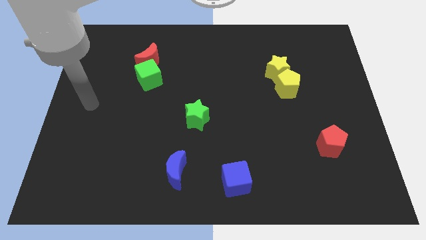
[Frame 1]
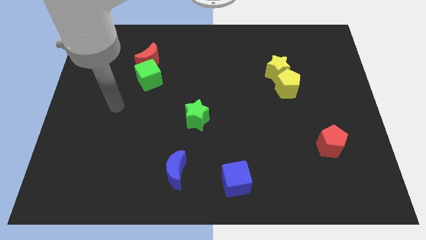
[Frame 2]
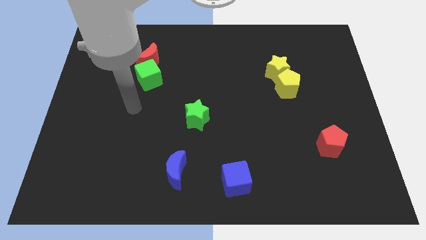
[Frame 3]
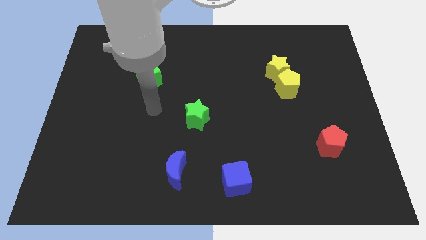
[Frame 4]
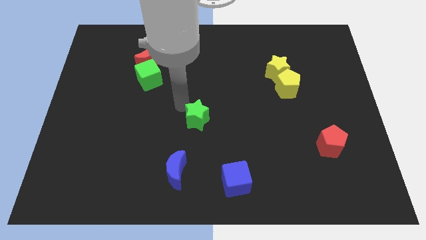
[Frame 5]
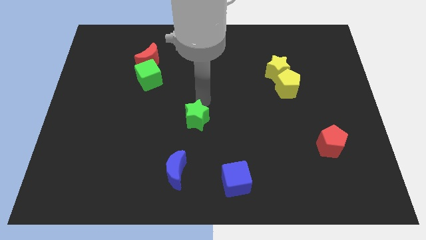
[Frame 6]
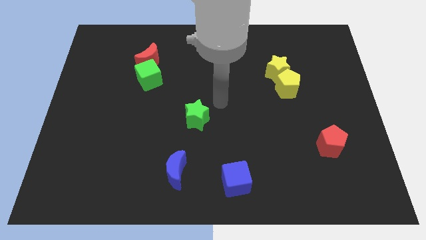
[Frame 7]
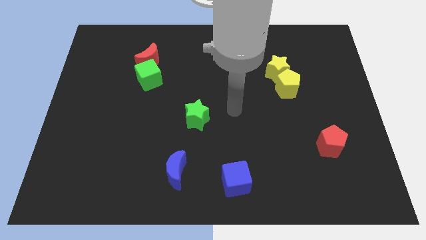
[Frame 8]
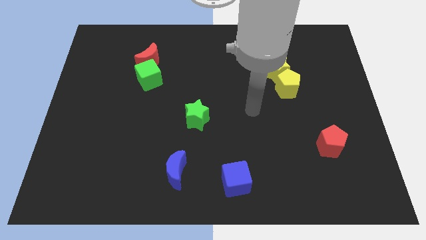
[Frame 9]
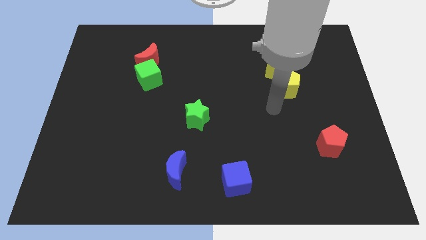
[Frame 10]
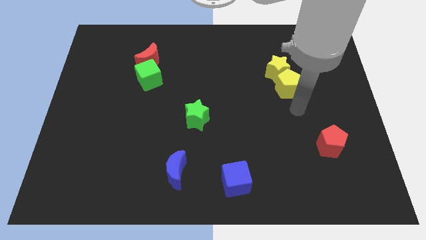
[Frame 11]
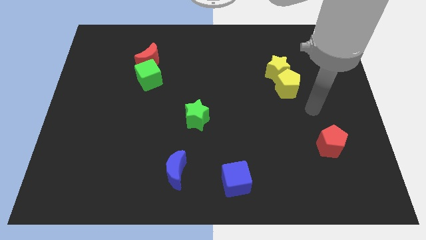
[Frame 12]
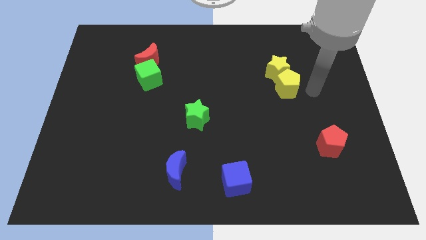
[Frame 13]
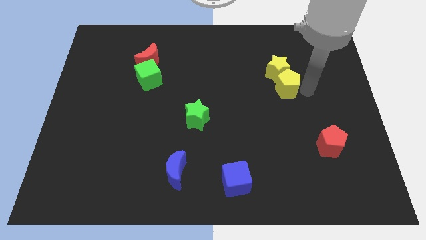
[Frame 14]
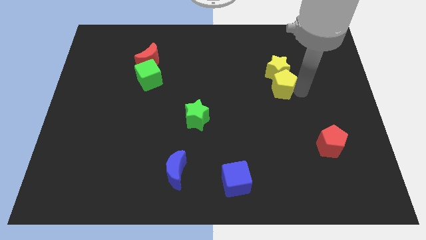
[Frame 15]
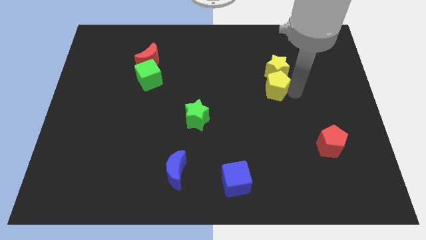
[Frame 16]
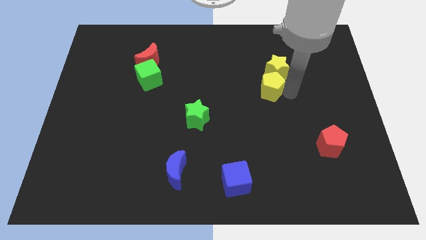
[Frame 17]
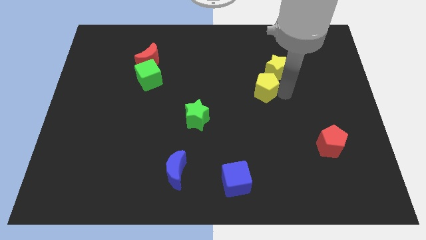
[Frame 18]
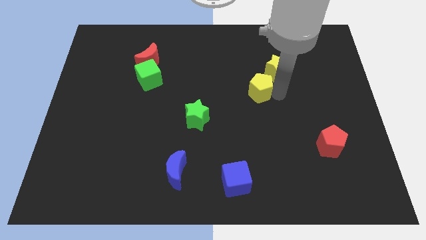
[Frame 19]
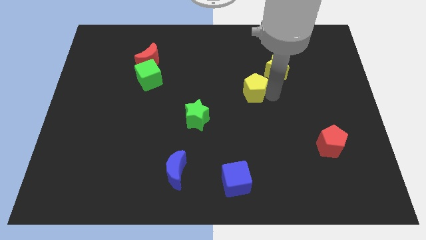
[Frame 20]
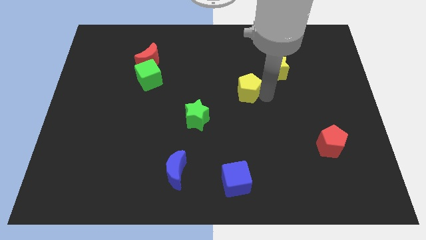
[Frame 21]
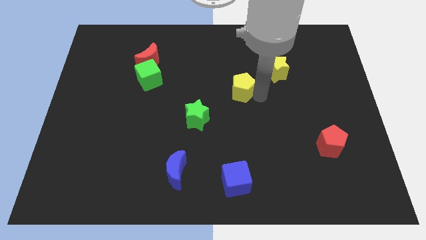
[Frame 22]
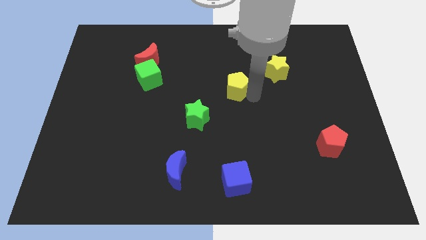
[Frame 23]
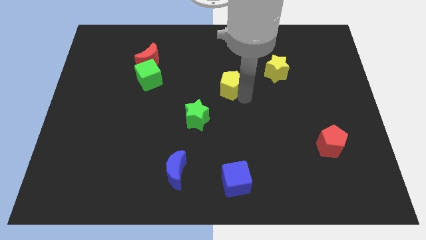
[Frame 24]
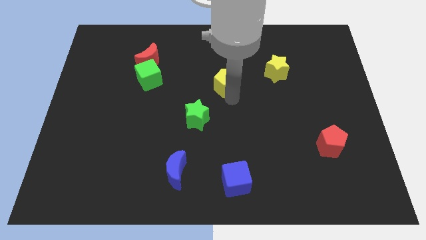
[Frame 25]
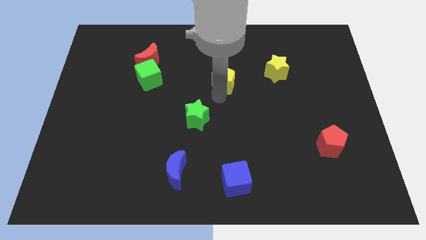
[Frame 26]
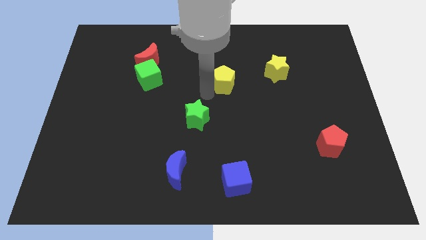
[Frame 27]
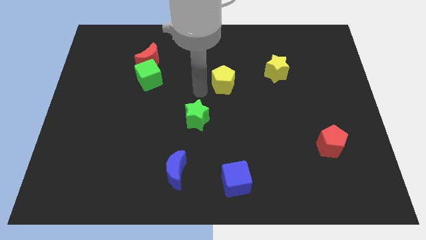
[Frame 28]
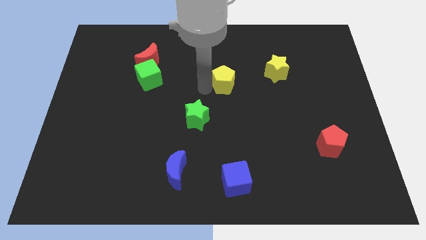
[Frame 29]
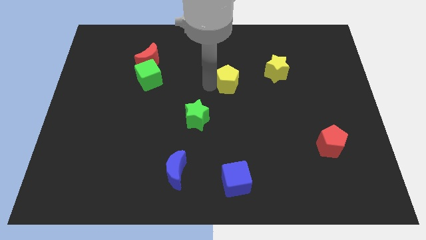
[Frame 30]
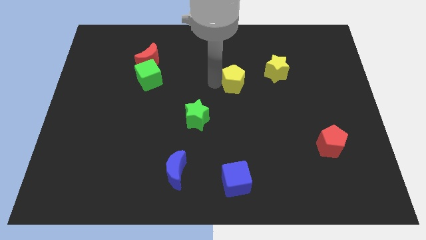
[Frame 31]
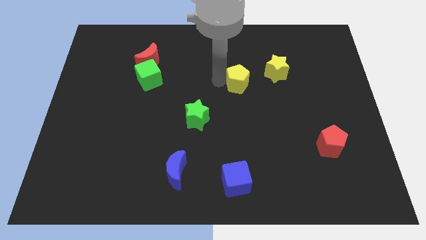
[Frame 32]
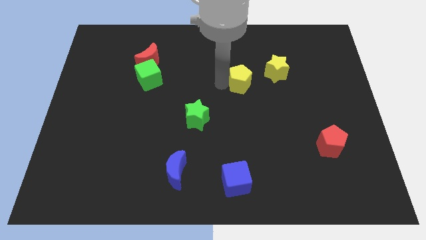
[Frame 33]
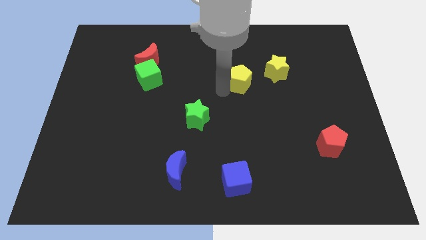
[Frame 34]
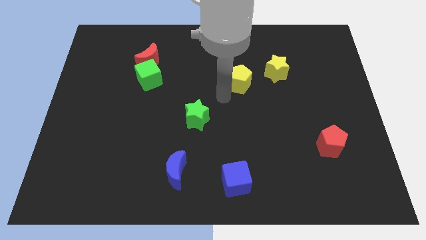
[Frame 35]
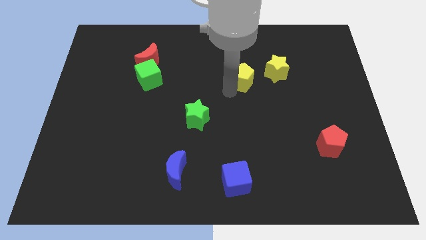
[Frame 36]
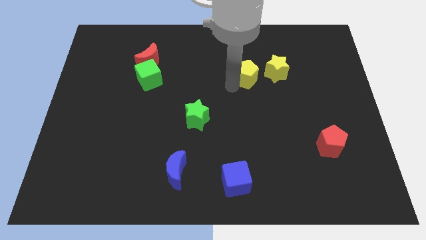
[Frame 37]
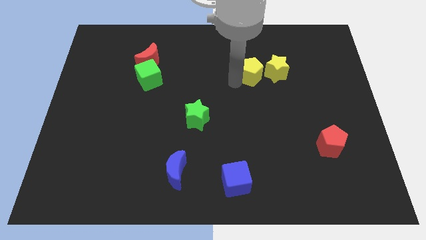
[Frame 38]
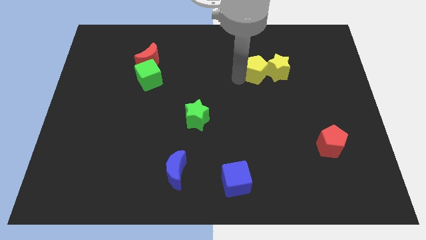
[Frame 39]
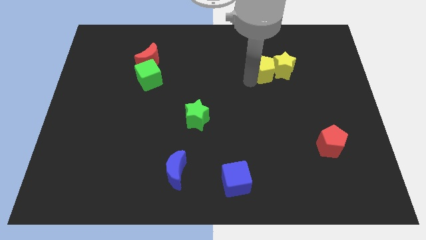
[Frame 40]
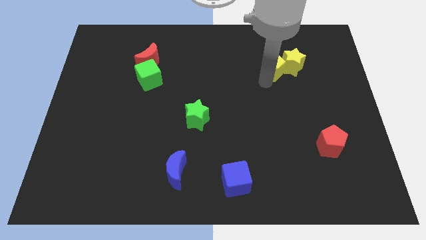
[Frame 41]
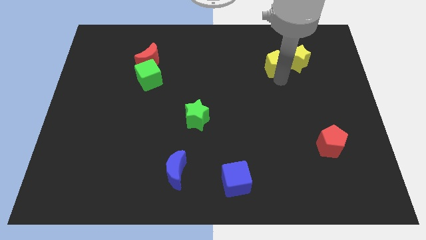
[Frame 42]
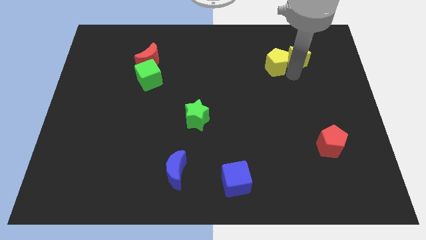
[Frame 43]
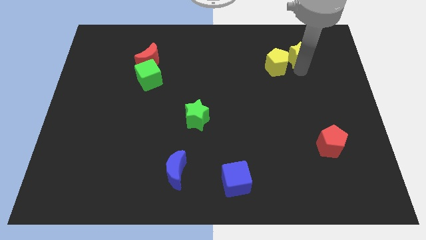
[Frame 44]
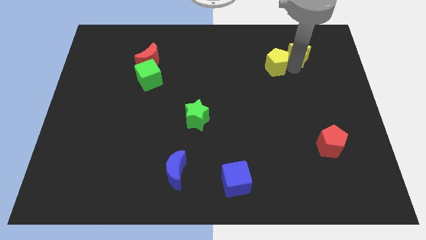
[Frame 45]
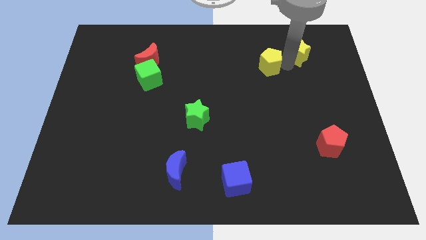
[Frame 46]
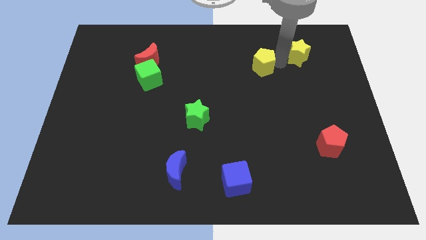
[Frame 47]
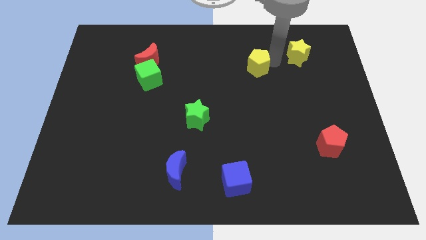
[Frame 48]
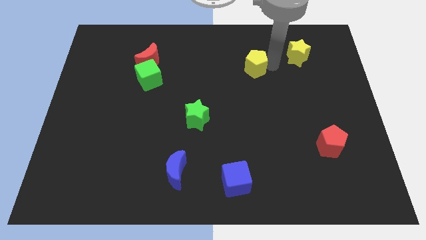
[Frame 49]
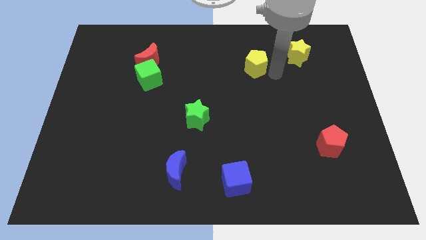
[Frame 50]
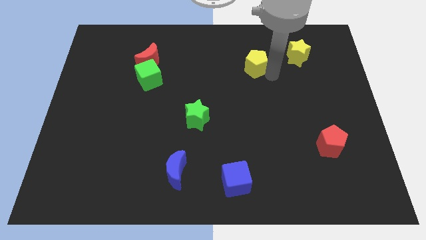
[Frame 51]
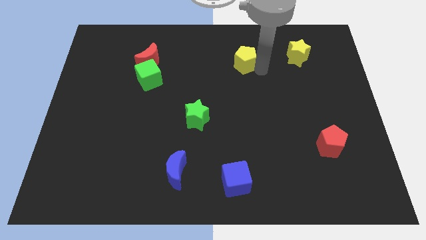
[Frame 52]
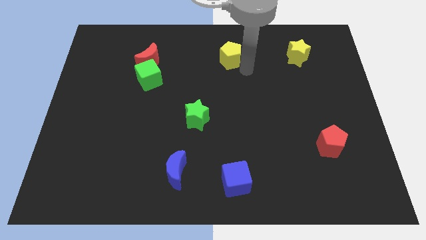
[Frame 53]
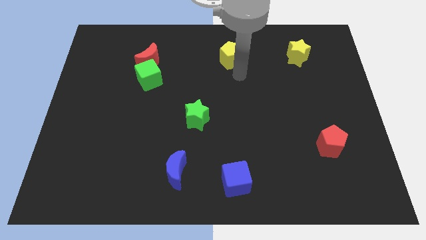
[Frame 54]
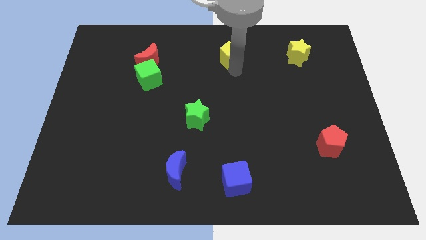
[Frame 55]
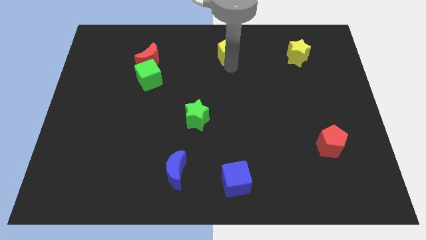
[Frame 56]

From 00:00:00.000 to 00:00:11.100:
move the yellow pentagon to the towards your base

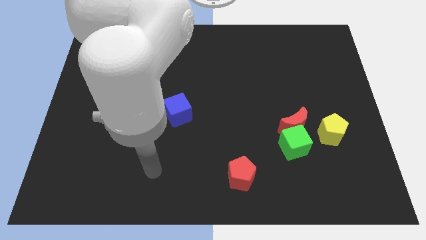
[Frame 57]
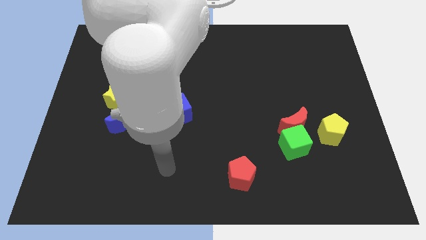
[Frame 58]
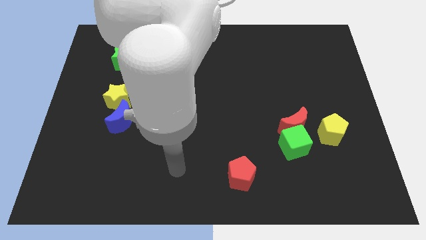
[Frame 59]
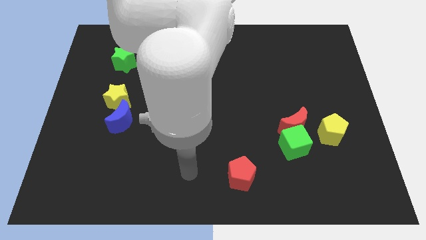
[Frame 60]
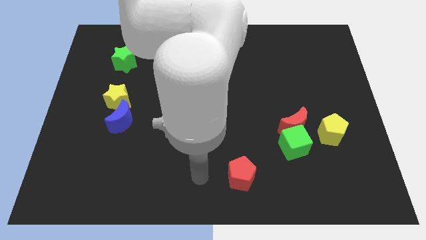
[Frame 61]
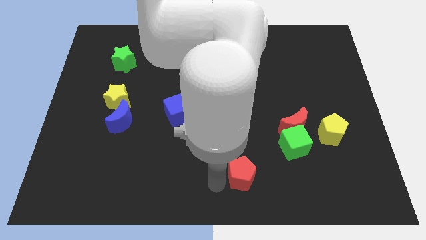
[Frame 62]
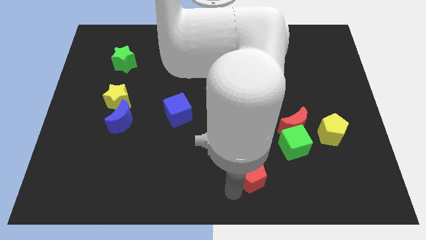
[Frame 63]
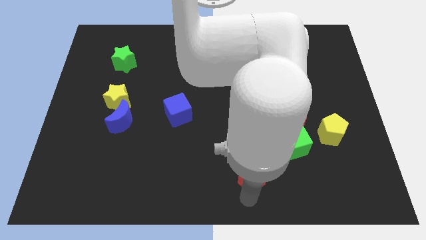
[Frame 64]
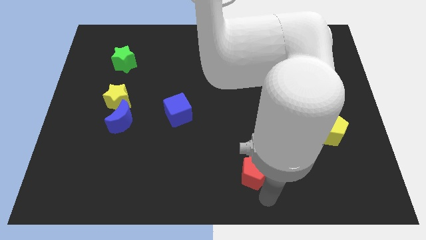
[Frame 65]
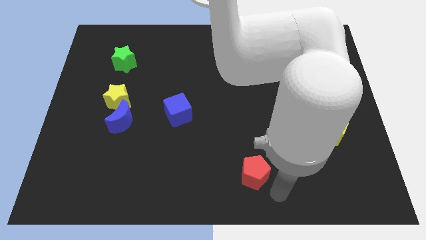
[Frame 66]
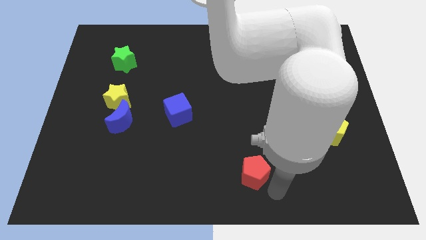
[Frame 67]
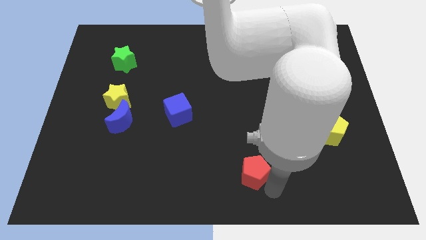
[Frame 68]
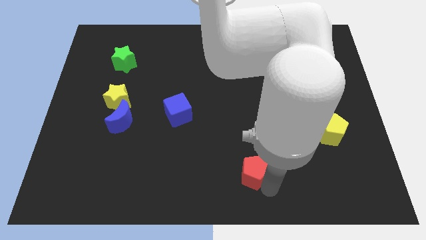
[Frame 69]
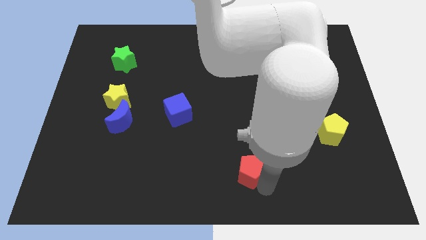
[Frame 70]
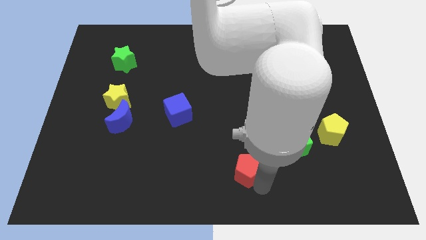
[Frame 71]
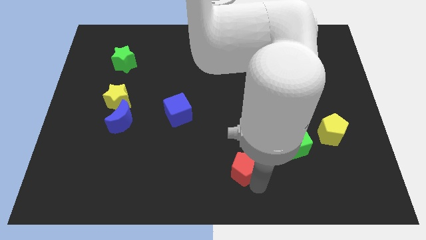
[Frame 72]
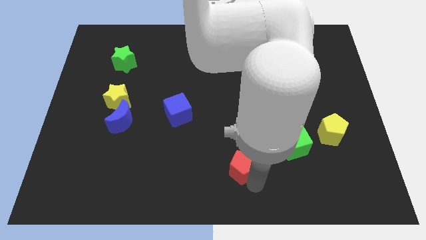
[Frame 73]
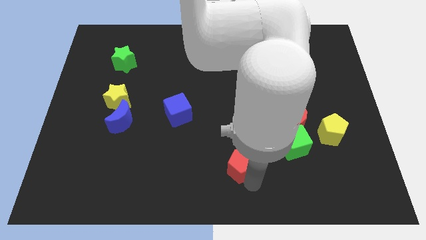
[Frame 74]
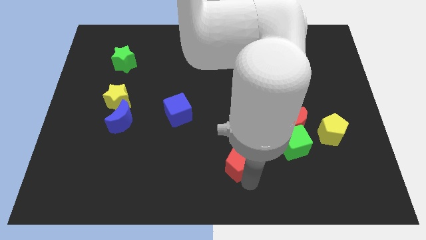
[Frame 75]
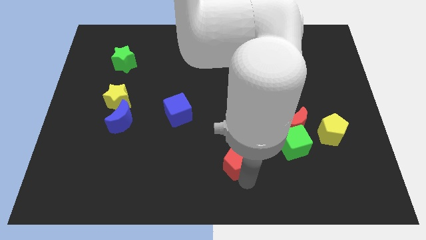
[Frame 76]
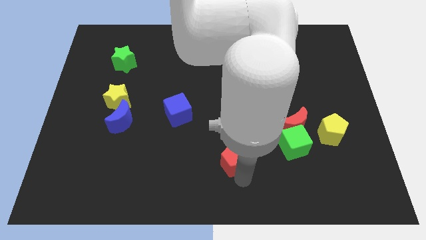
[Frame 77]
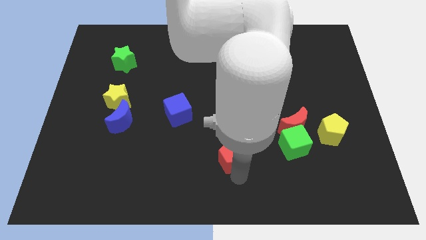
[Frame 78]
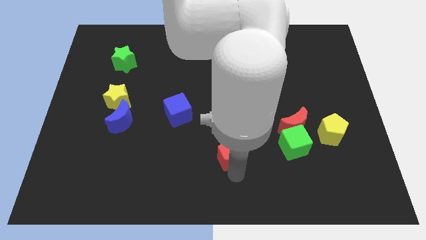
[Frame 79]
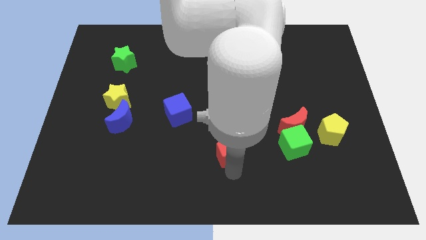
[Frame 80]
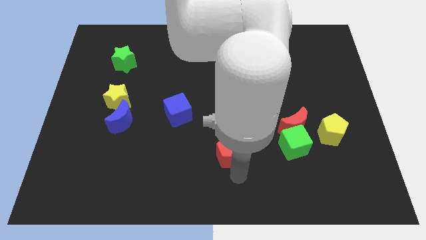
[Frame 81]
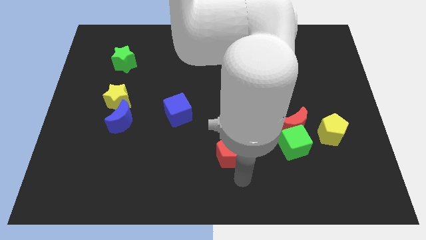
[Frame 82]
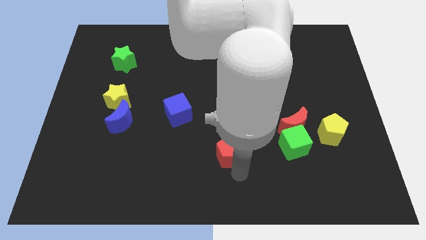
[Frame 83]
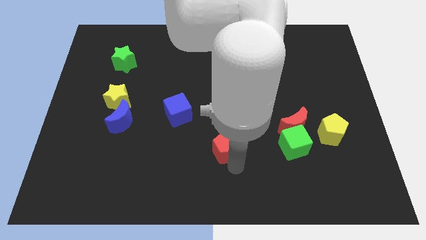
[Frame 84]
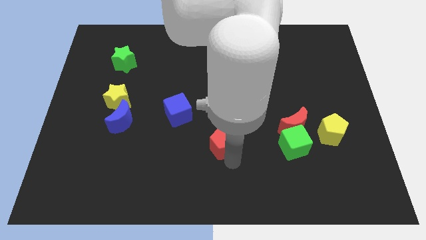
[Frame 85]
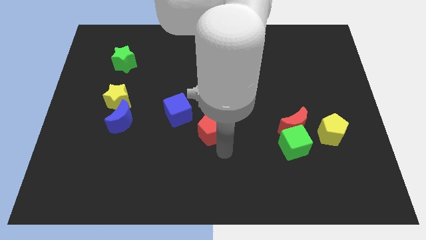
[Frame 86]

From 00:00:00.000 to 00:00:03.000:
push the red pentagon to the middle of the board
